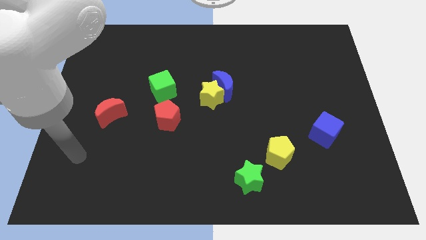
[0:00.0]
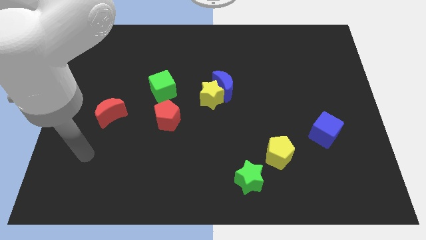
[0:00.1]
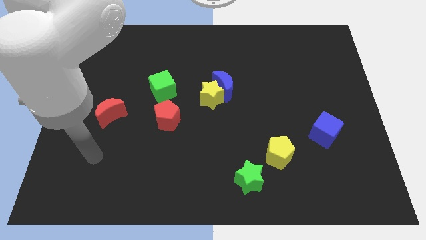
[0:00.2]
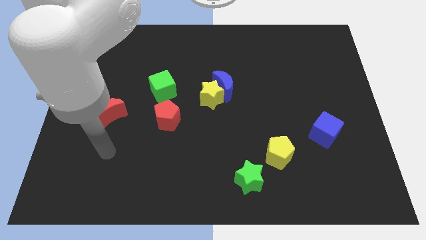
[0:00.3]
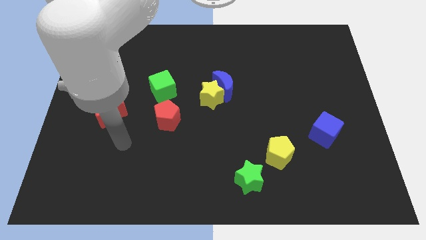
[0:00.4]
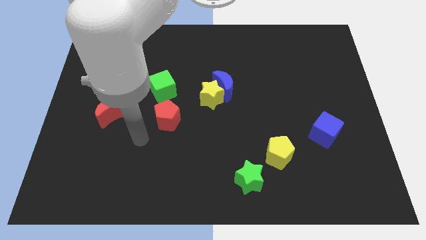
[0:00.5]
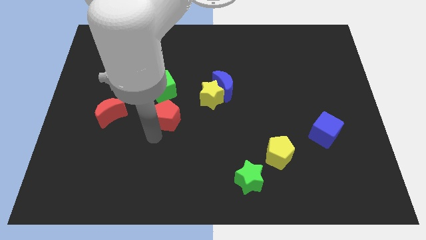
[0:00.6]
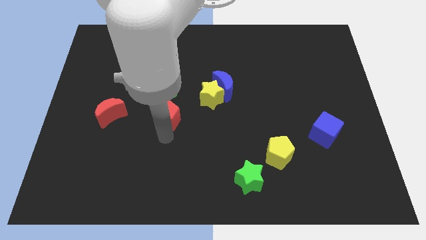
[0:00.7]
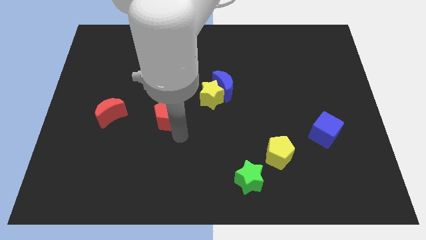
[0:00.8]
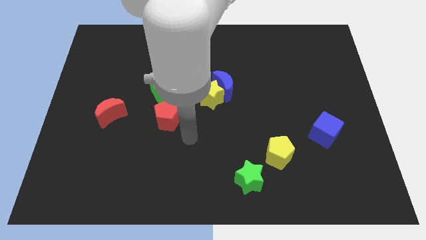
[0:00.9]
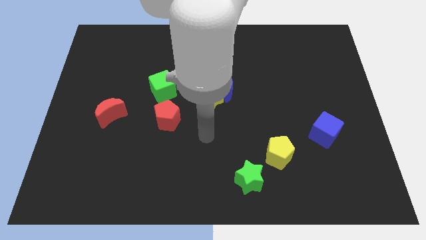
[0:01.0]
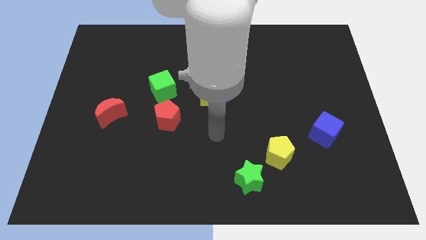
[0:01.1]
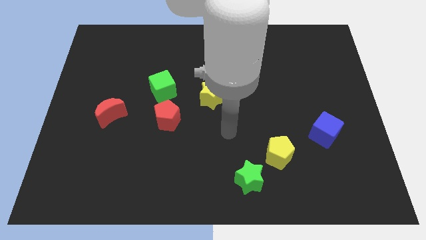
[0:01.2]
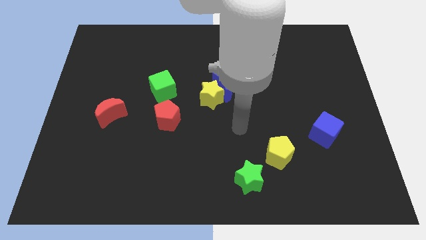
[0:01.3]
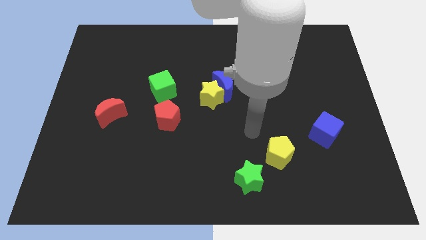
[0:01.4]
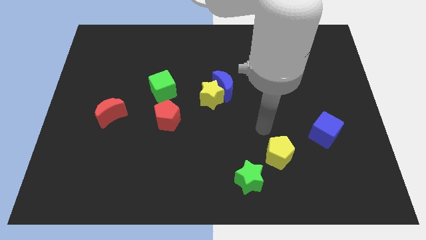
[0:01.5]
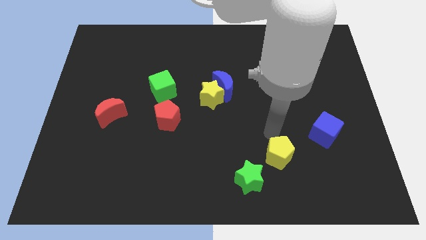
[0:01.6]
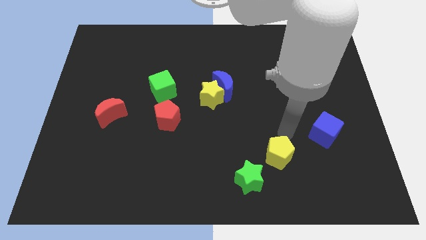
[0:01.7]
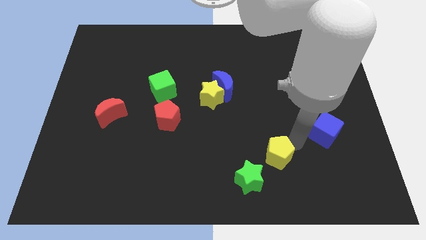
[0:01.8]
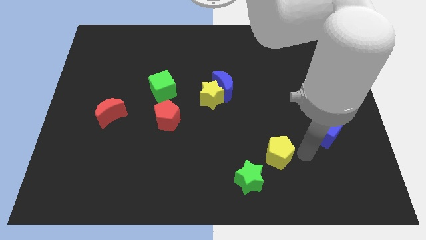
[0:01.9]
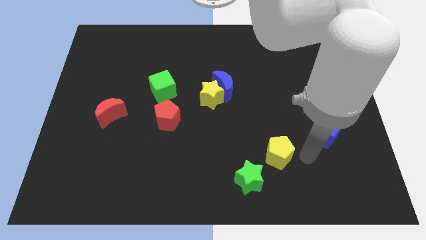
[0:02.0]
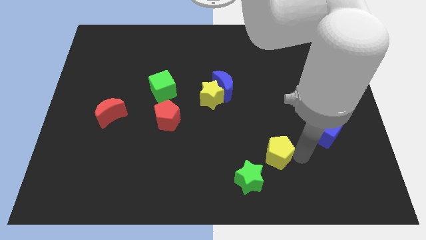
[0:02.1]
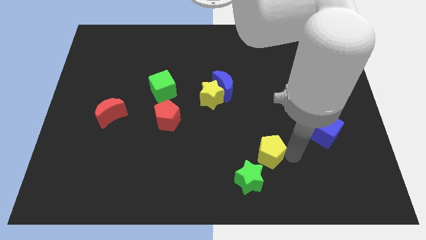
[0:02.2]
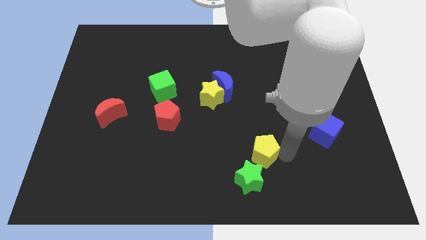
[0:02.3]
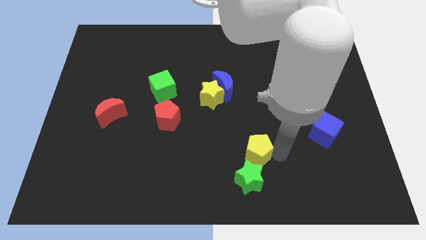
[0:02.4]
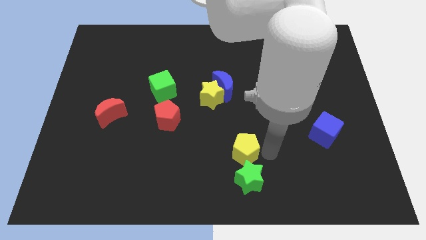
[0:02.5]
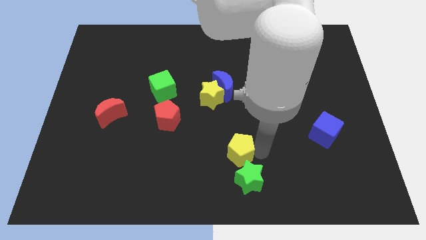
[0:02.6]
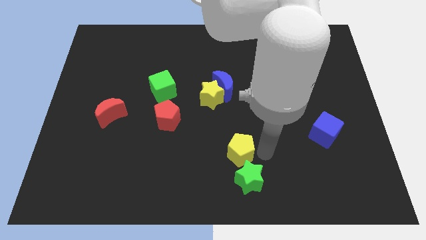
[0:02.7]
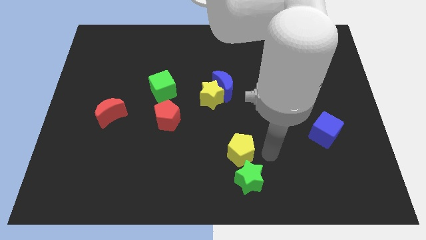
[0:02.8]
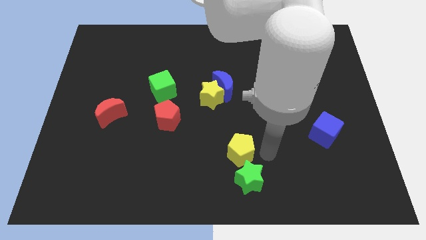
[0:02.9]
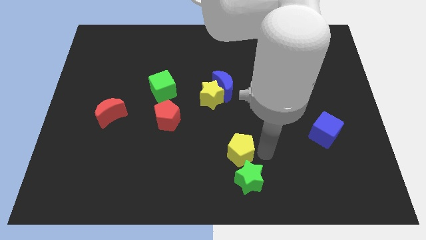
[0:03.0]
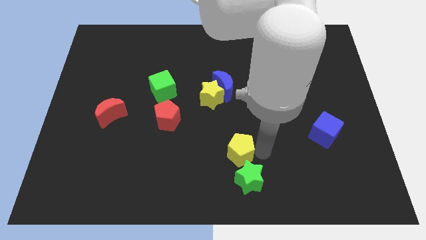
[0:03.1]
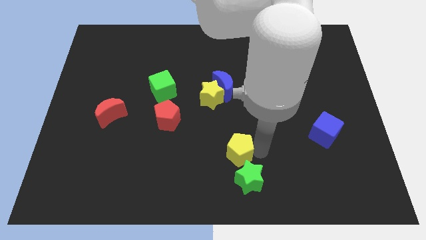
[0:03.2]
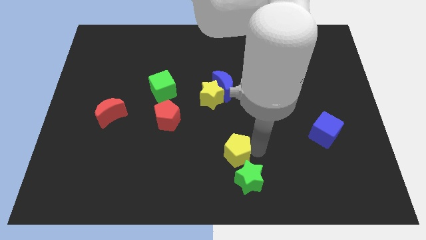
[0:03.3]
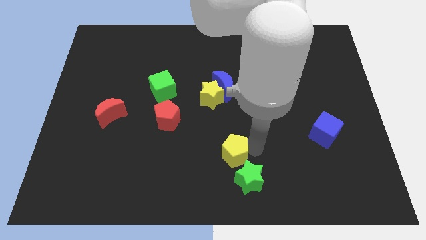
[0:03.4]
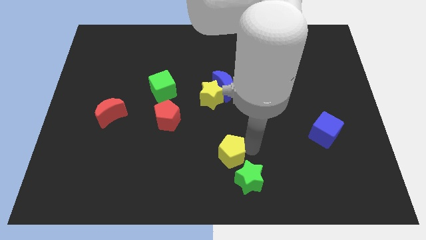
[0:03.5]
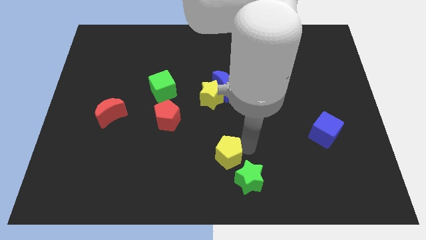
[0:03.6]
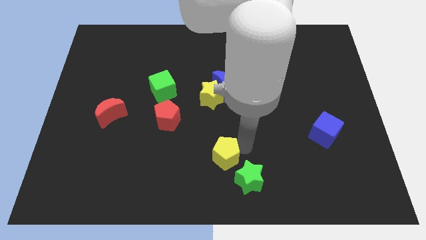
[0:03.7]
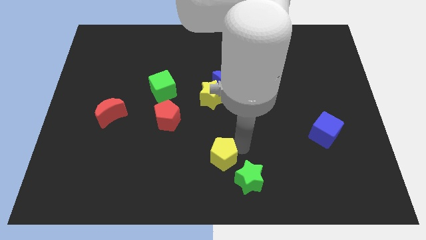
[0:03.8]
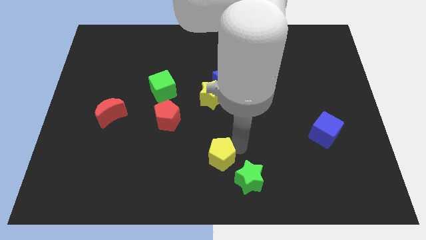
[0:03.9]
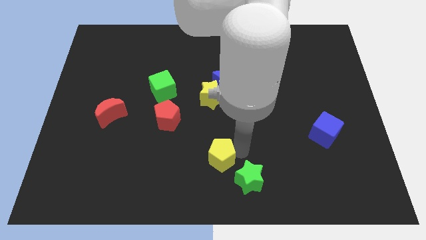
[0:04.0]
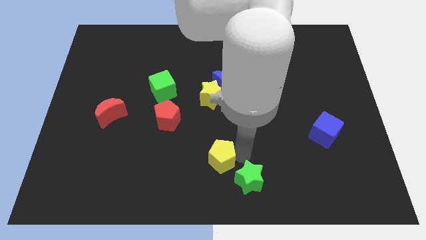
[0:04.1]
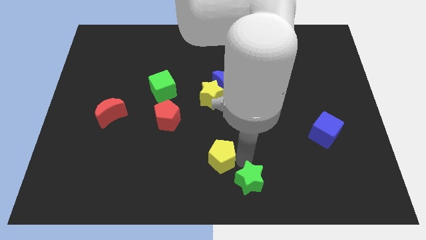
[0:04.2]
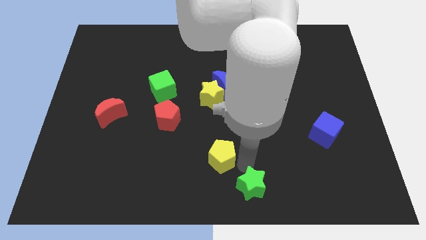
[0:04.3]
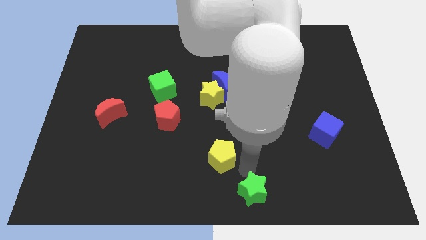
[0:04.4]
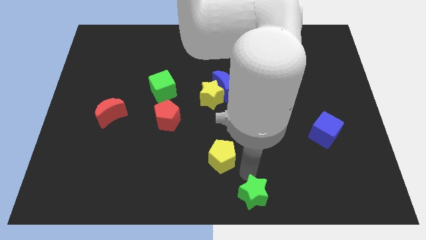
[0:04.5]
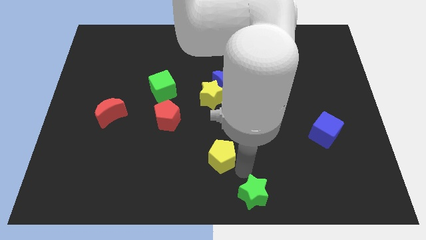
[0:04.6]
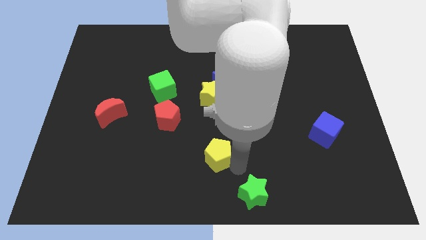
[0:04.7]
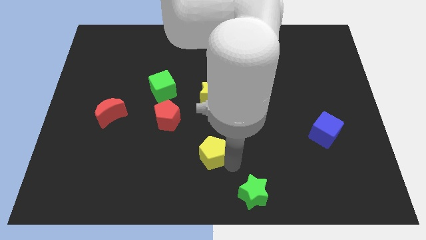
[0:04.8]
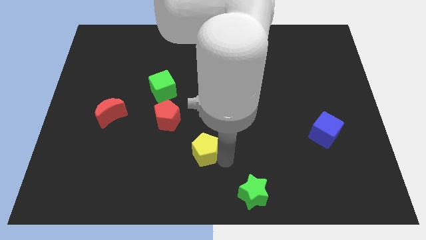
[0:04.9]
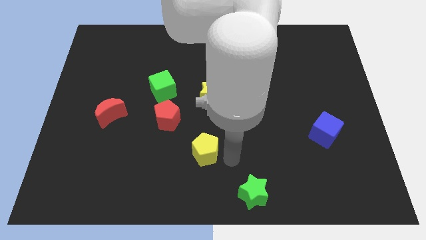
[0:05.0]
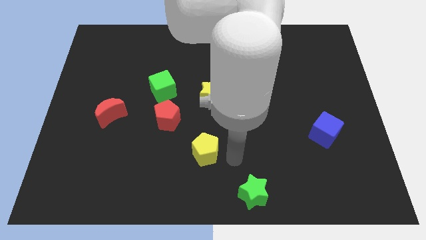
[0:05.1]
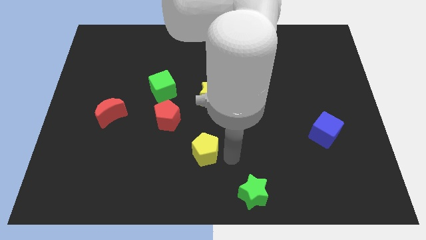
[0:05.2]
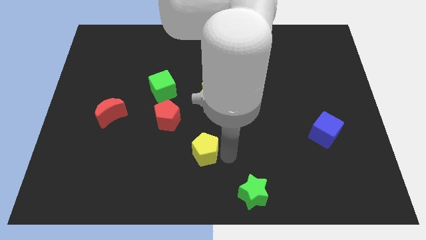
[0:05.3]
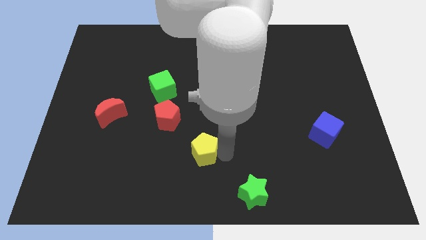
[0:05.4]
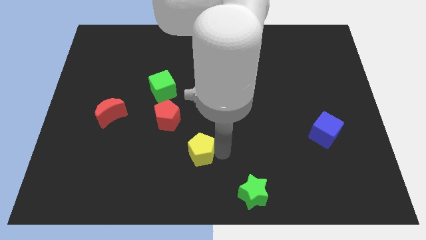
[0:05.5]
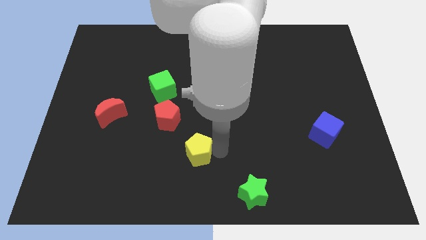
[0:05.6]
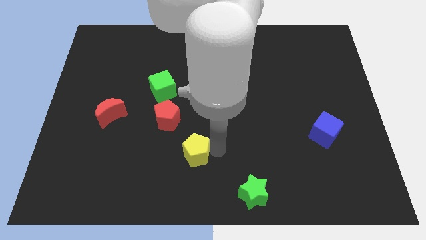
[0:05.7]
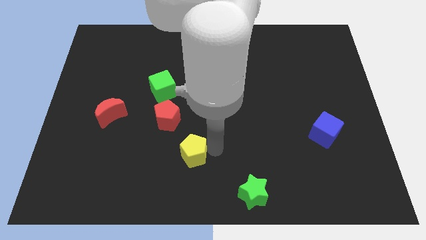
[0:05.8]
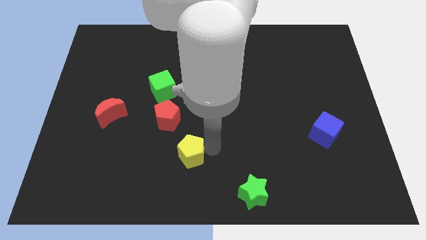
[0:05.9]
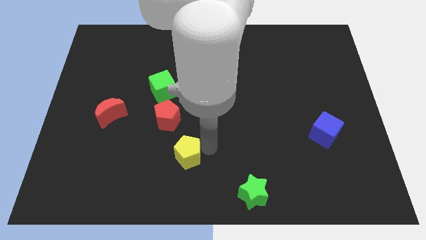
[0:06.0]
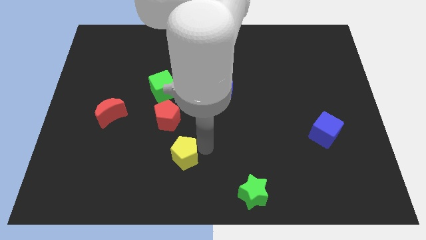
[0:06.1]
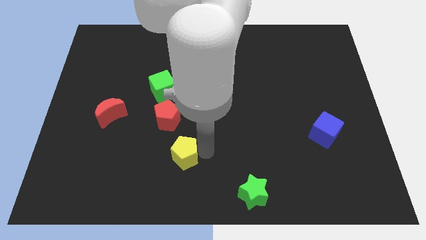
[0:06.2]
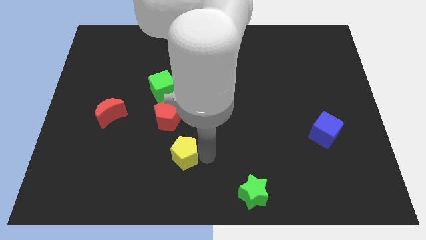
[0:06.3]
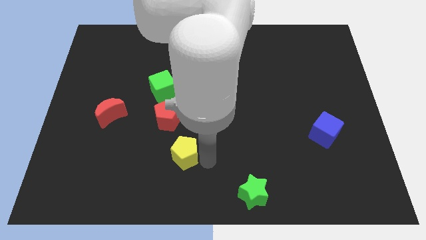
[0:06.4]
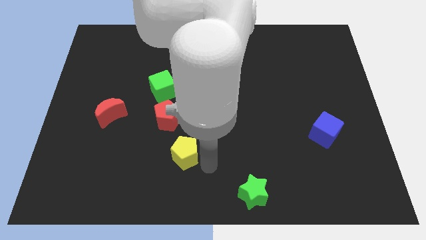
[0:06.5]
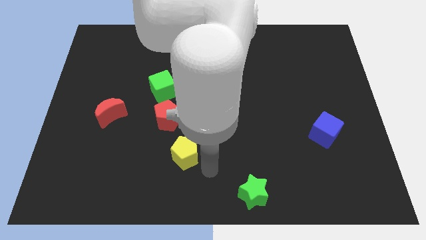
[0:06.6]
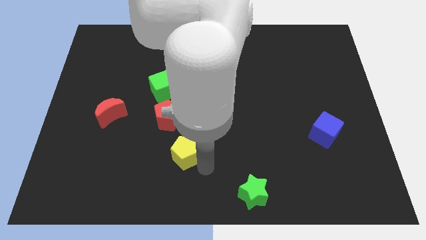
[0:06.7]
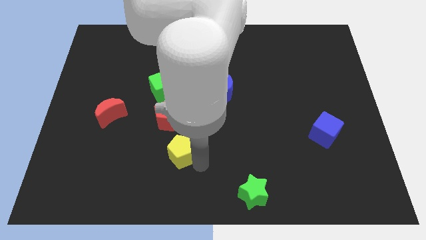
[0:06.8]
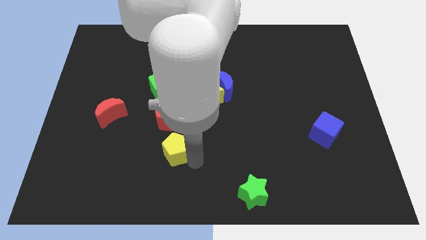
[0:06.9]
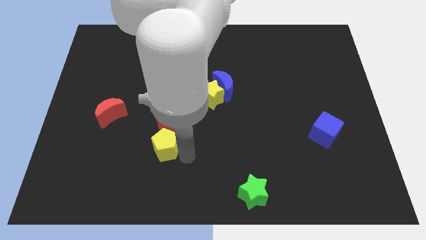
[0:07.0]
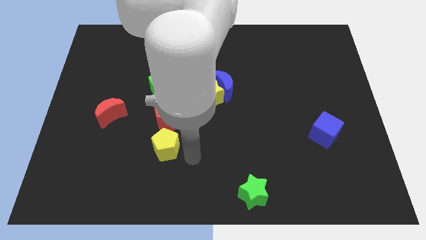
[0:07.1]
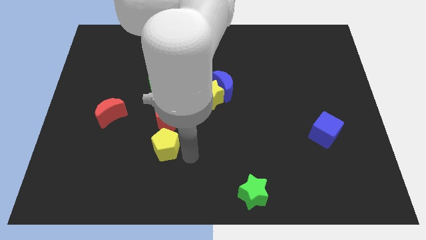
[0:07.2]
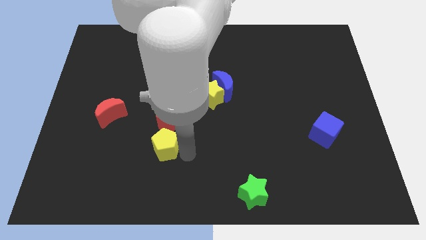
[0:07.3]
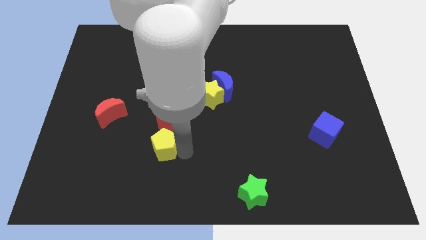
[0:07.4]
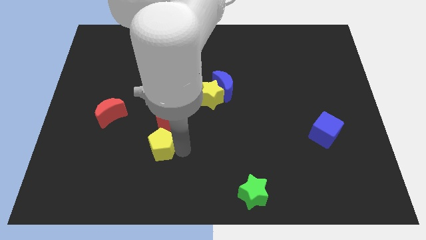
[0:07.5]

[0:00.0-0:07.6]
move the yellow pentagon diagonally down and to the left of the red pentagon
